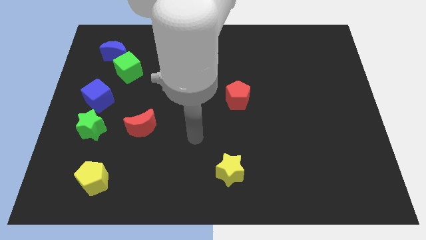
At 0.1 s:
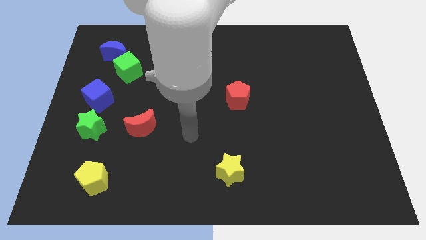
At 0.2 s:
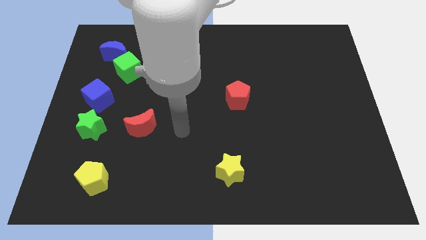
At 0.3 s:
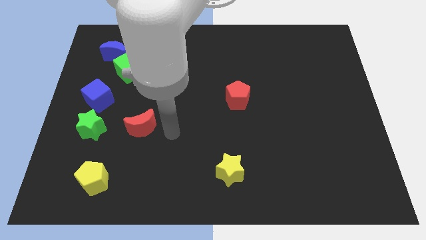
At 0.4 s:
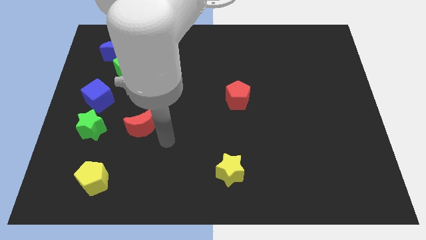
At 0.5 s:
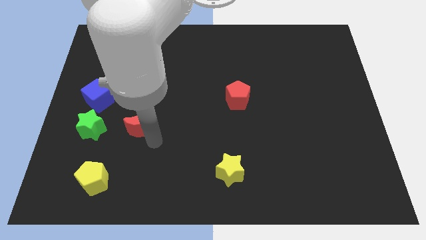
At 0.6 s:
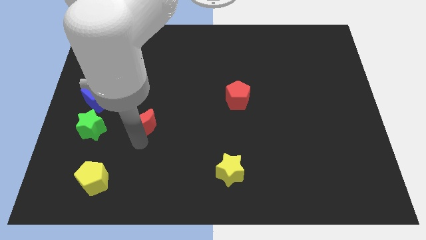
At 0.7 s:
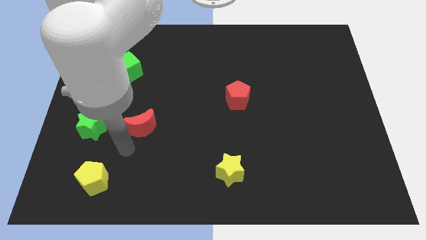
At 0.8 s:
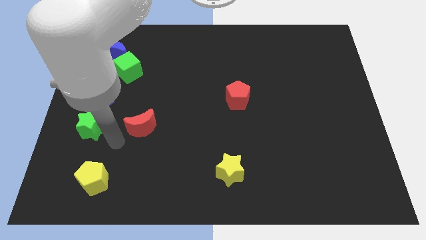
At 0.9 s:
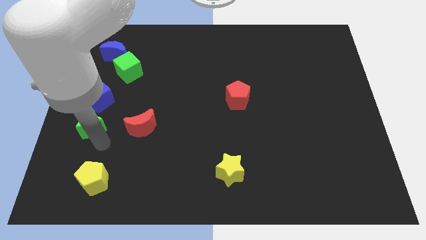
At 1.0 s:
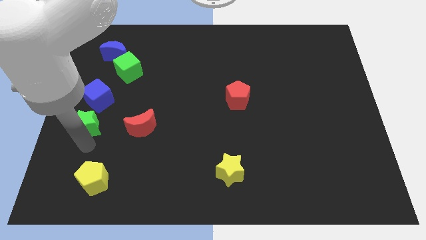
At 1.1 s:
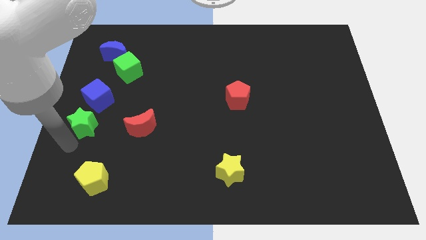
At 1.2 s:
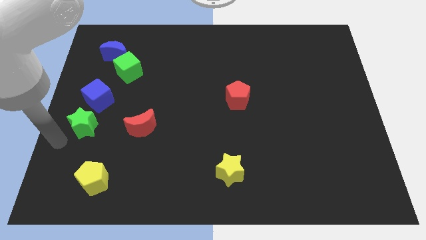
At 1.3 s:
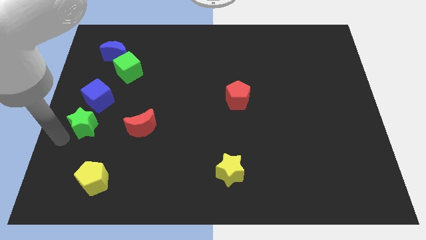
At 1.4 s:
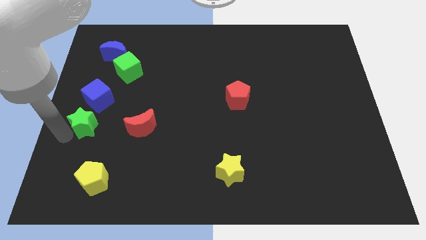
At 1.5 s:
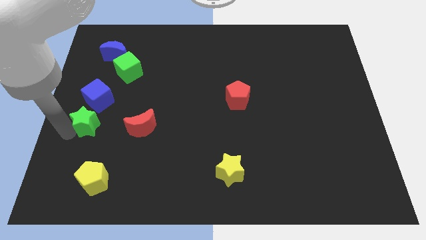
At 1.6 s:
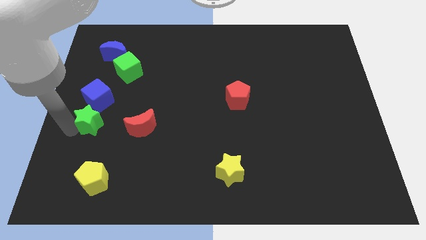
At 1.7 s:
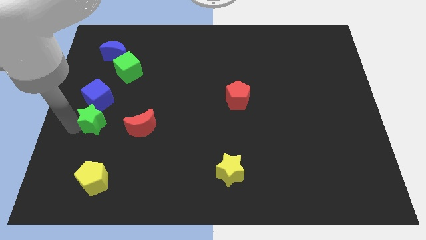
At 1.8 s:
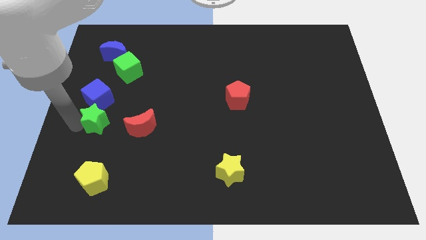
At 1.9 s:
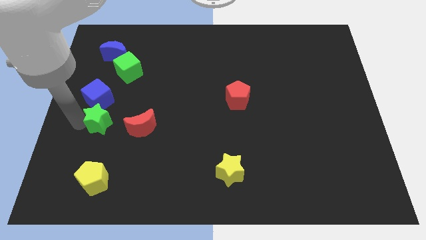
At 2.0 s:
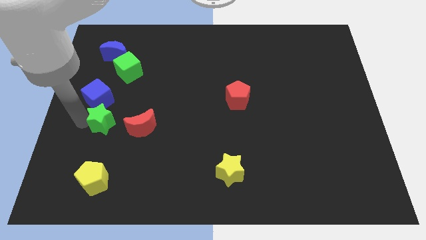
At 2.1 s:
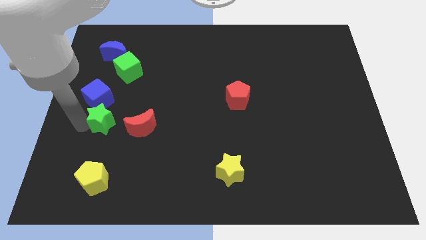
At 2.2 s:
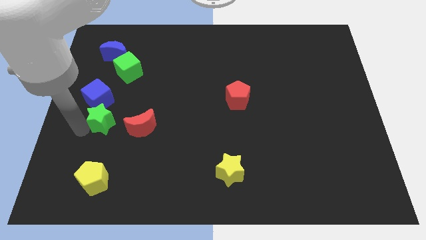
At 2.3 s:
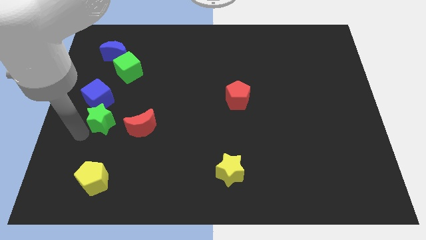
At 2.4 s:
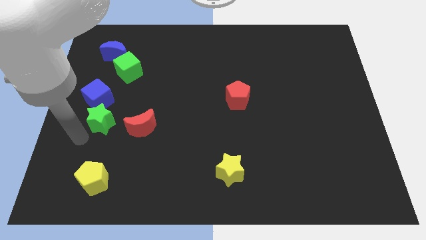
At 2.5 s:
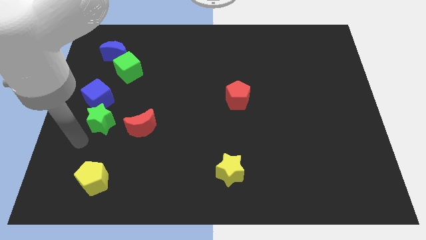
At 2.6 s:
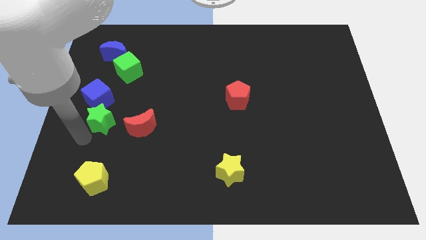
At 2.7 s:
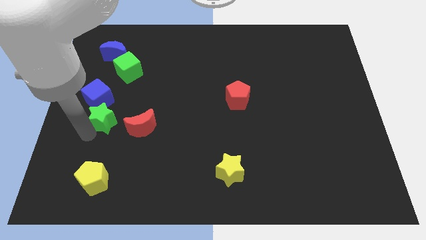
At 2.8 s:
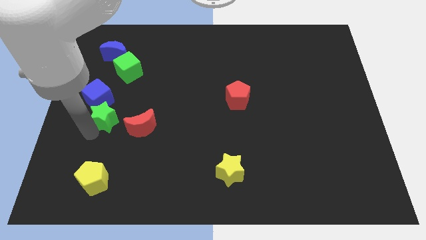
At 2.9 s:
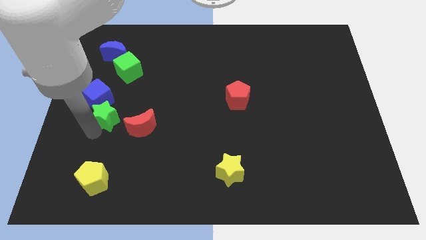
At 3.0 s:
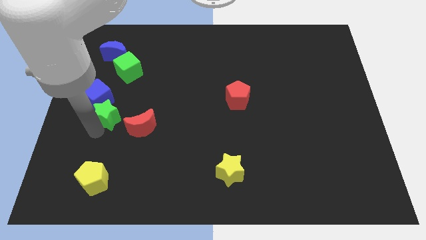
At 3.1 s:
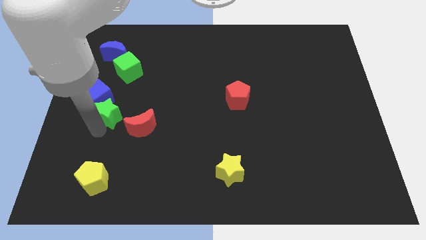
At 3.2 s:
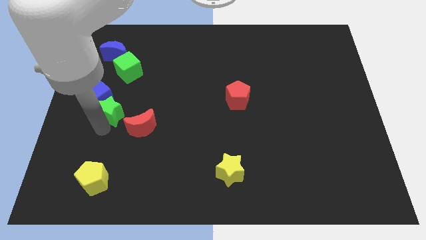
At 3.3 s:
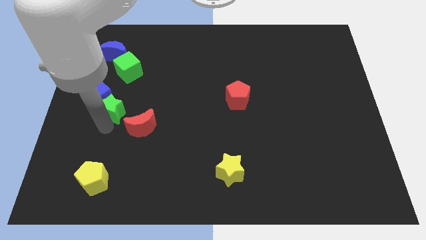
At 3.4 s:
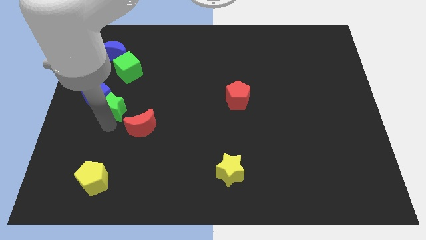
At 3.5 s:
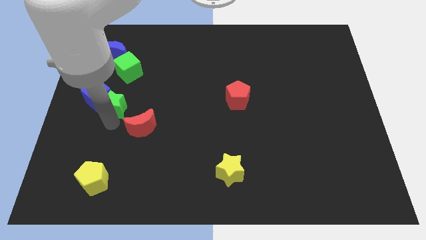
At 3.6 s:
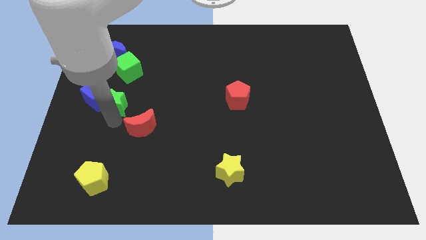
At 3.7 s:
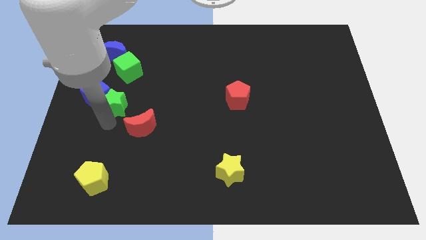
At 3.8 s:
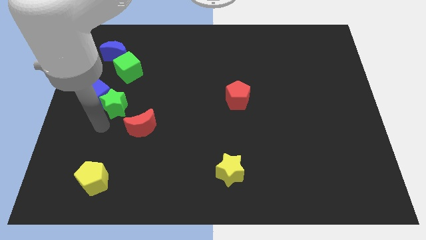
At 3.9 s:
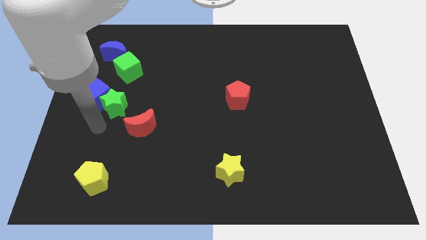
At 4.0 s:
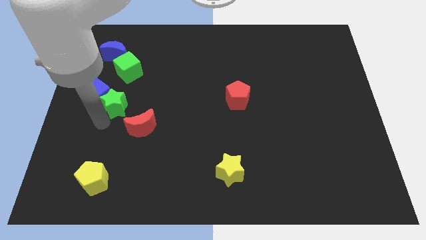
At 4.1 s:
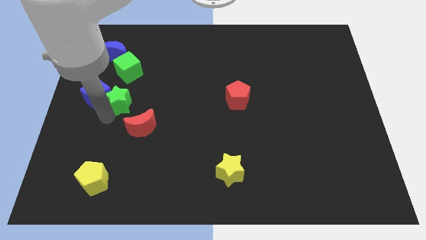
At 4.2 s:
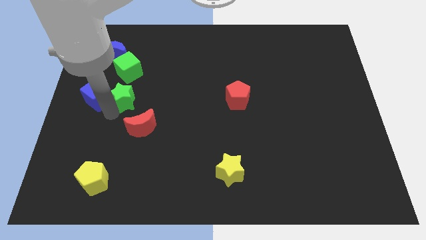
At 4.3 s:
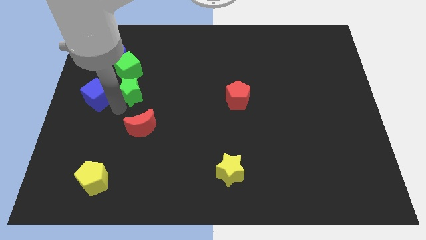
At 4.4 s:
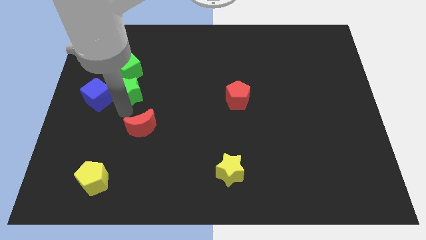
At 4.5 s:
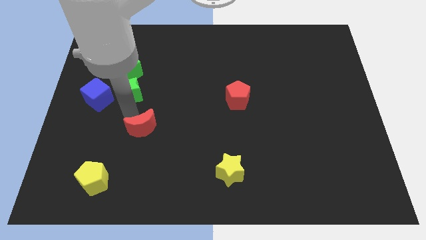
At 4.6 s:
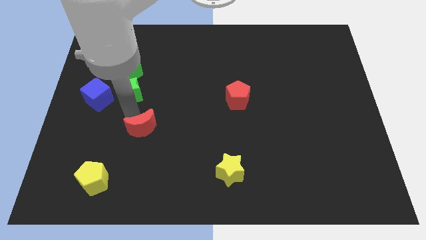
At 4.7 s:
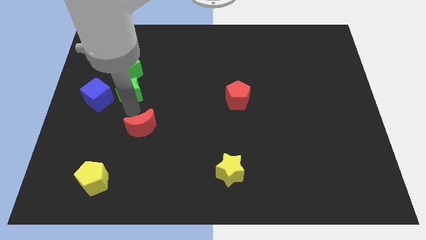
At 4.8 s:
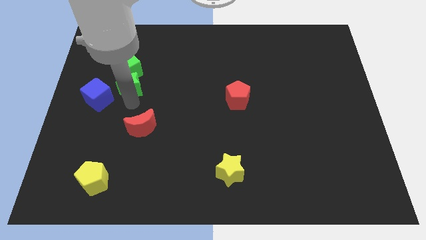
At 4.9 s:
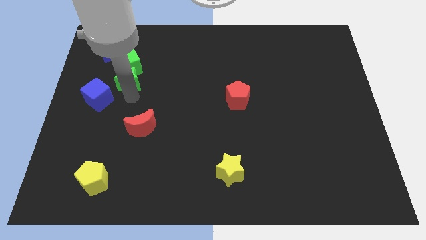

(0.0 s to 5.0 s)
slide the green star next to the green cube

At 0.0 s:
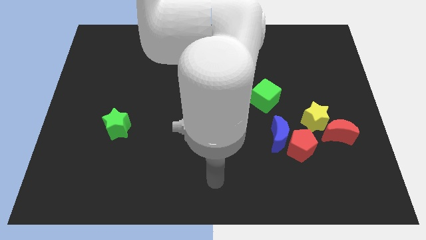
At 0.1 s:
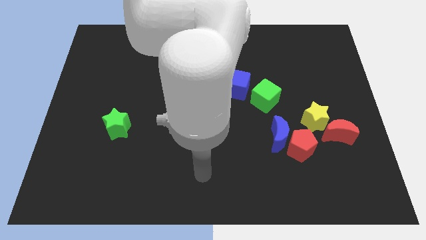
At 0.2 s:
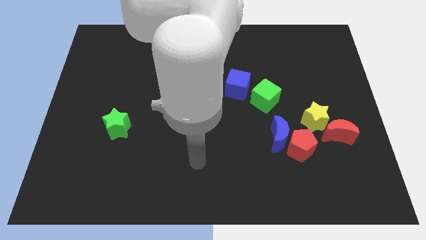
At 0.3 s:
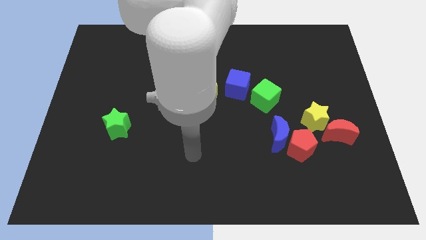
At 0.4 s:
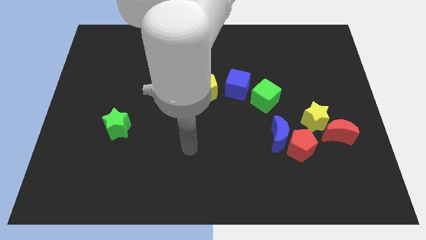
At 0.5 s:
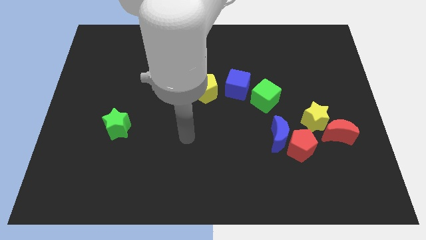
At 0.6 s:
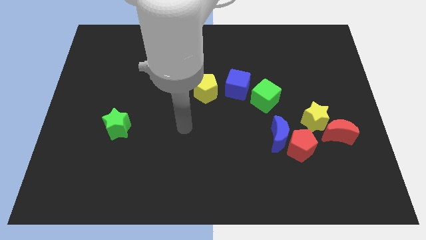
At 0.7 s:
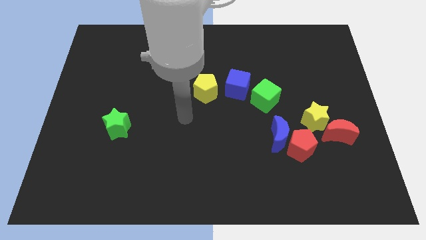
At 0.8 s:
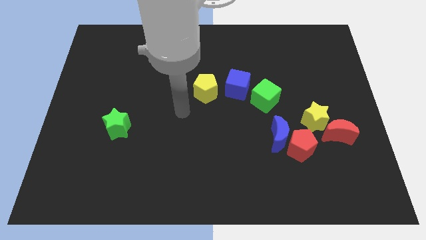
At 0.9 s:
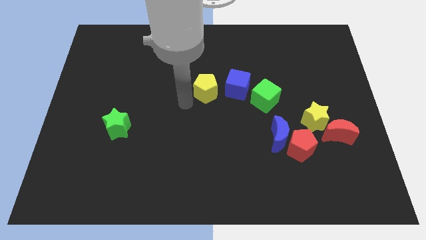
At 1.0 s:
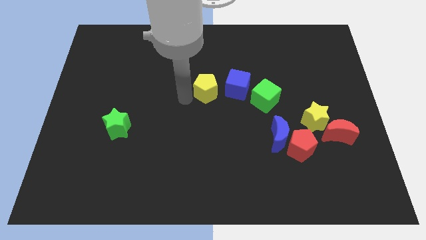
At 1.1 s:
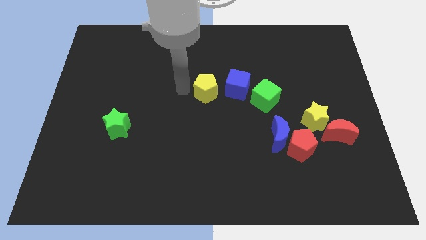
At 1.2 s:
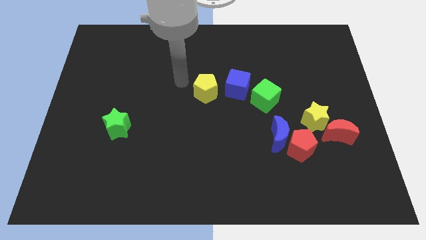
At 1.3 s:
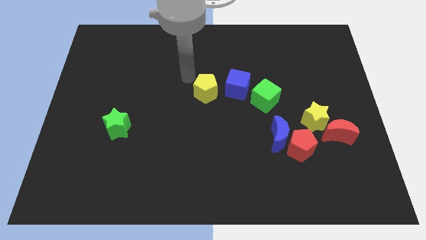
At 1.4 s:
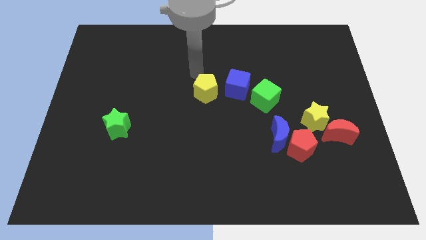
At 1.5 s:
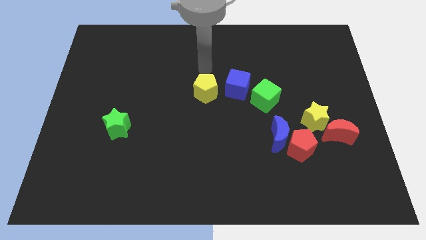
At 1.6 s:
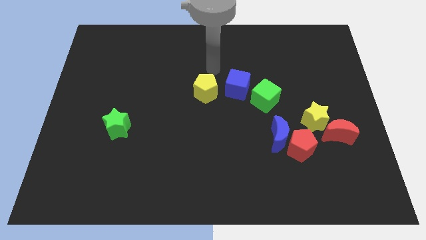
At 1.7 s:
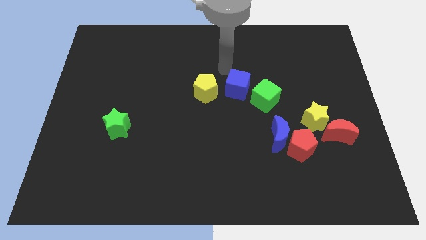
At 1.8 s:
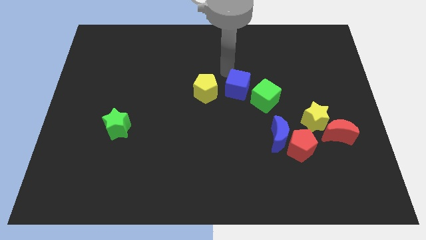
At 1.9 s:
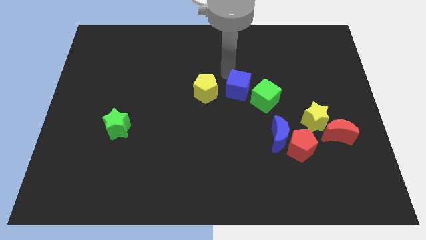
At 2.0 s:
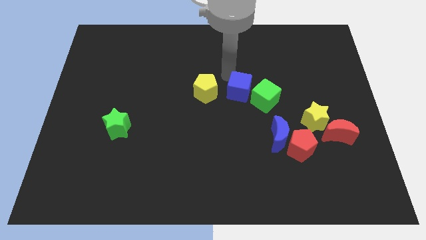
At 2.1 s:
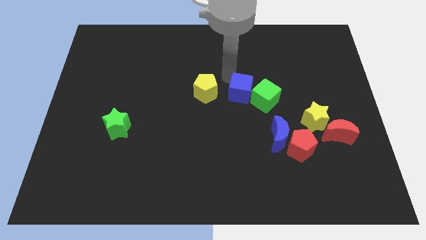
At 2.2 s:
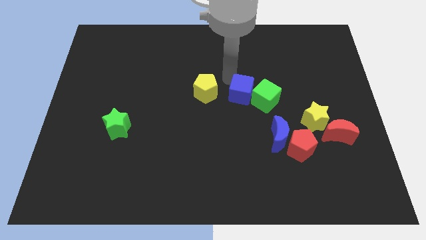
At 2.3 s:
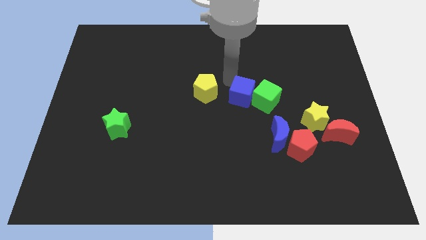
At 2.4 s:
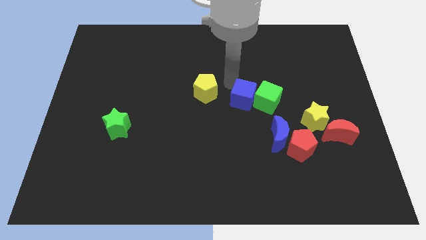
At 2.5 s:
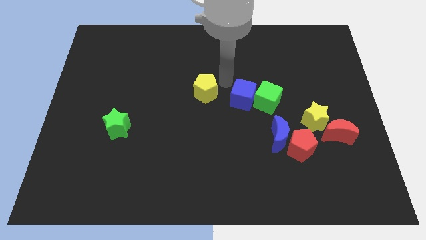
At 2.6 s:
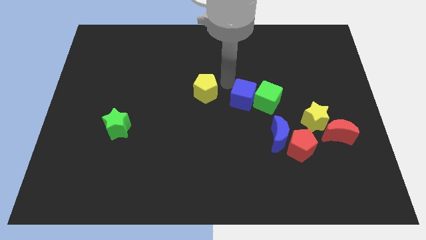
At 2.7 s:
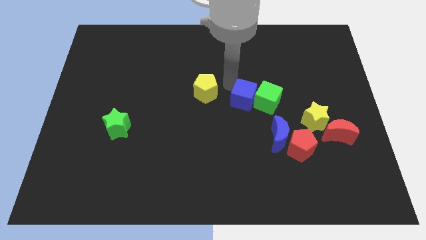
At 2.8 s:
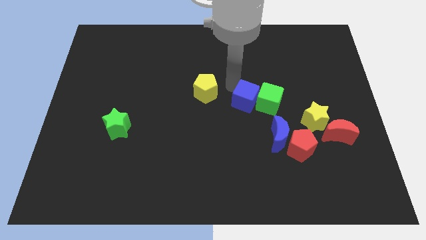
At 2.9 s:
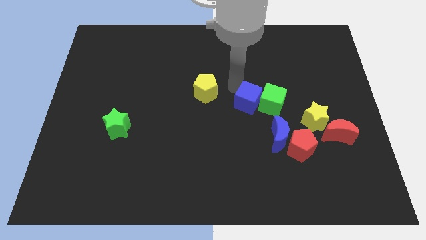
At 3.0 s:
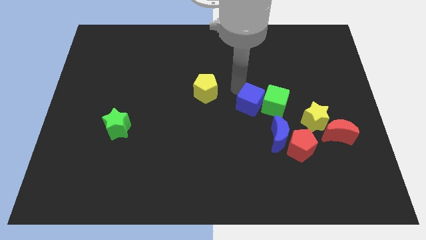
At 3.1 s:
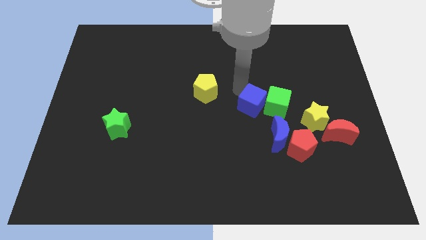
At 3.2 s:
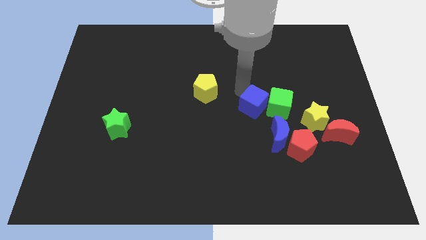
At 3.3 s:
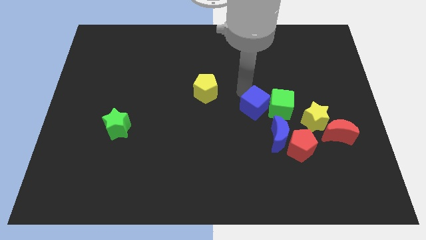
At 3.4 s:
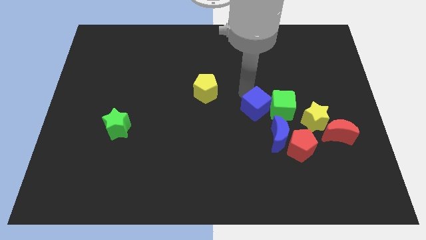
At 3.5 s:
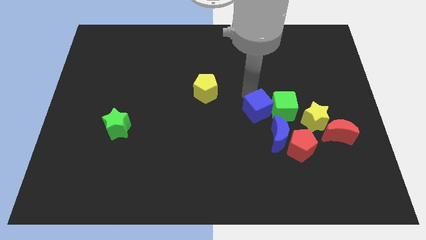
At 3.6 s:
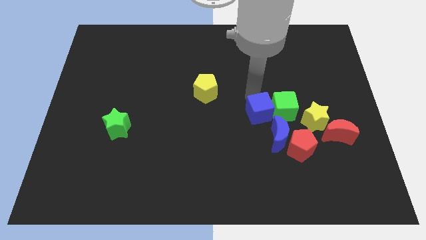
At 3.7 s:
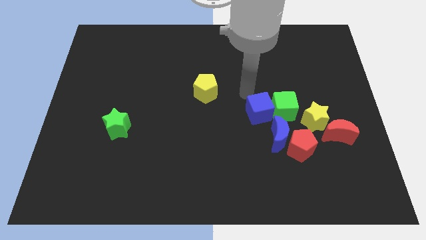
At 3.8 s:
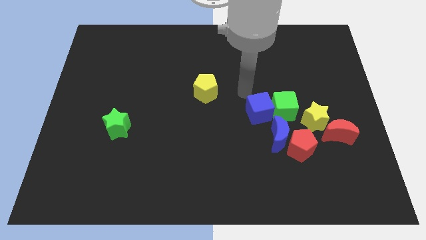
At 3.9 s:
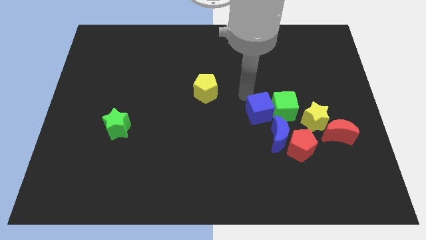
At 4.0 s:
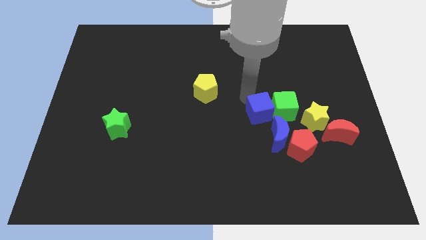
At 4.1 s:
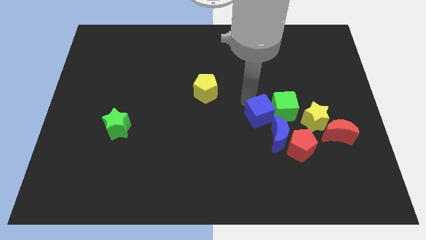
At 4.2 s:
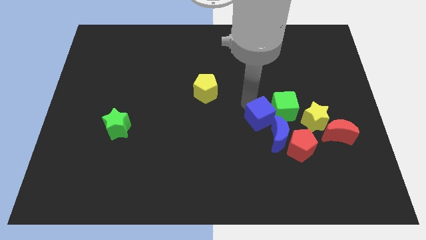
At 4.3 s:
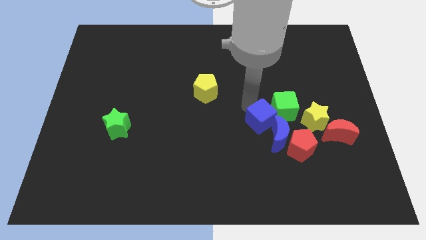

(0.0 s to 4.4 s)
slide the blue cube to the blue moon
